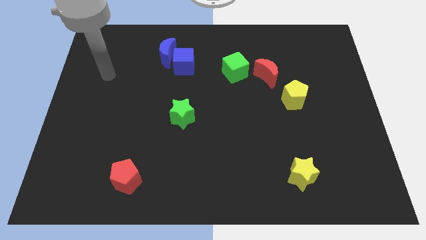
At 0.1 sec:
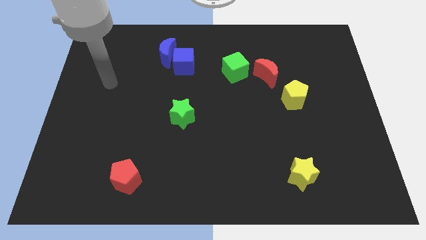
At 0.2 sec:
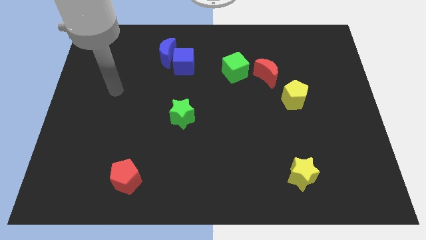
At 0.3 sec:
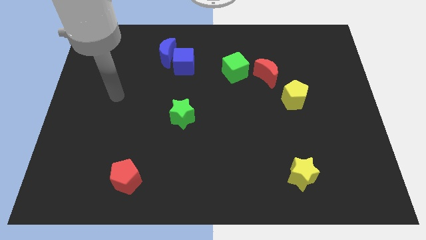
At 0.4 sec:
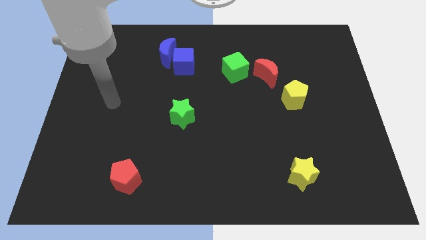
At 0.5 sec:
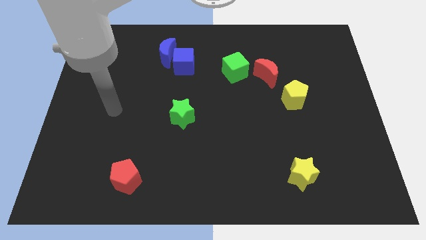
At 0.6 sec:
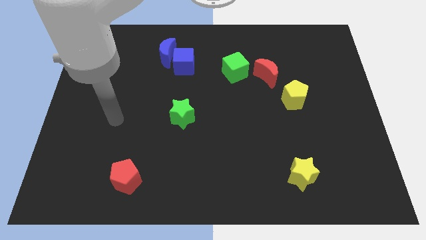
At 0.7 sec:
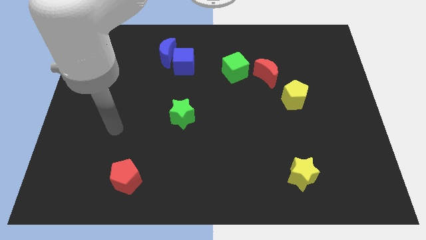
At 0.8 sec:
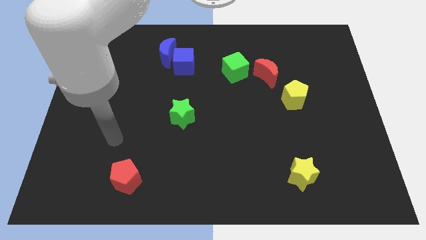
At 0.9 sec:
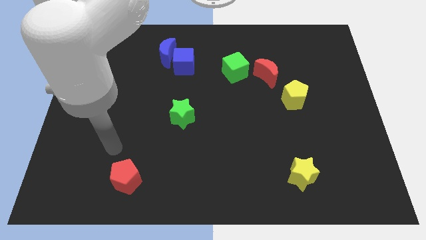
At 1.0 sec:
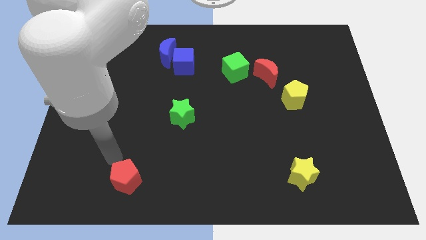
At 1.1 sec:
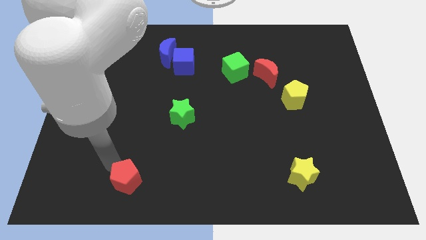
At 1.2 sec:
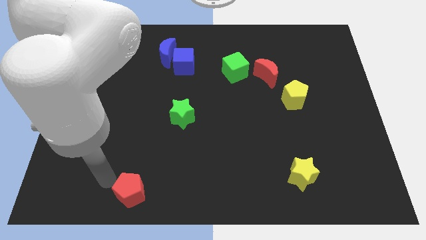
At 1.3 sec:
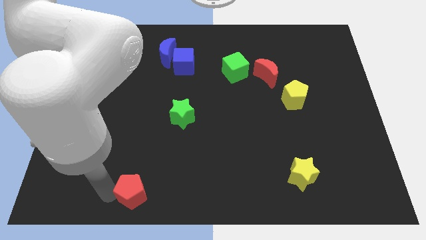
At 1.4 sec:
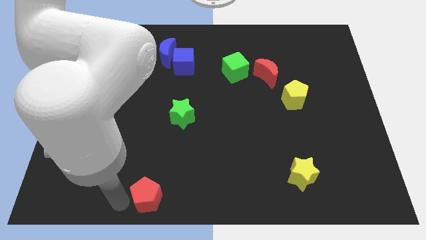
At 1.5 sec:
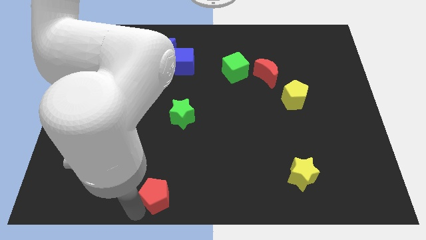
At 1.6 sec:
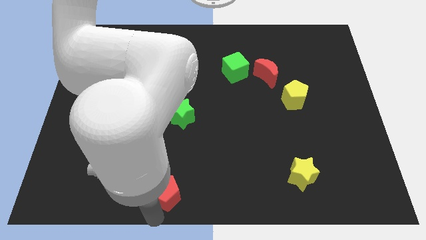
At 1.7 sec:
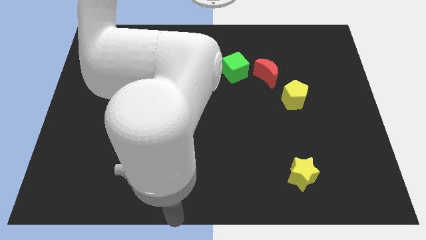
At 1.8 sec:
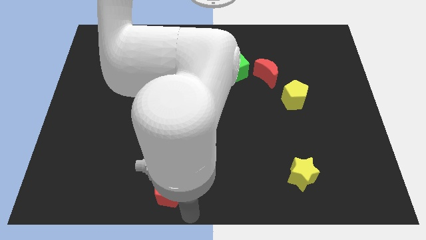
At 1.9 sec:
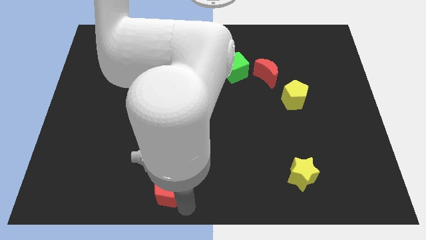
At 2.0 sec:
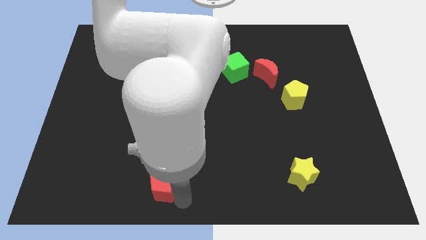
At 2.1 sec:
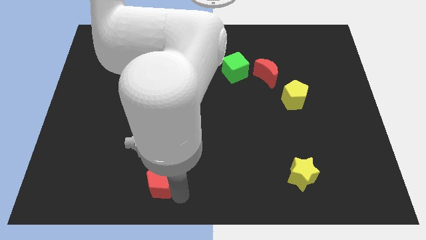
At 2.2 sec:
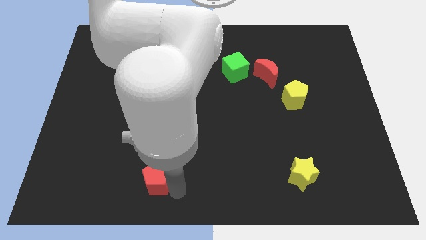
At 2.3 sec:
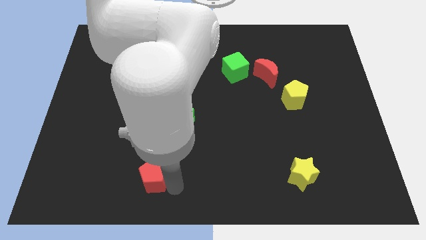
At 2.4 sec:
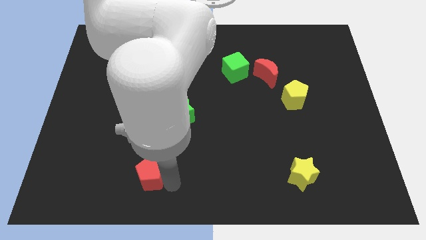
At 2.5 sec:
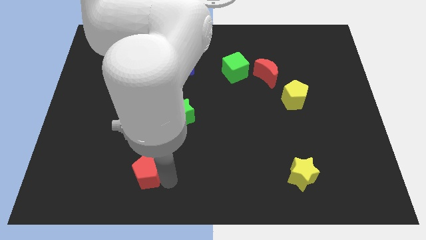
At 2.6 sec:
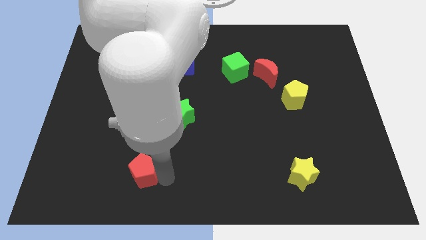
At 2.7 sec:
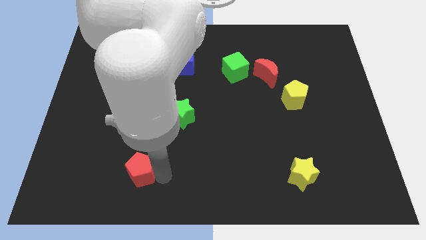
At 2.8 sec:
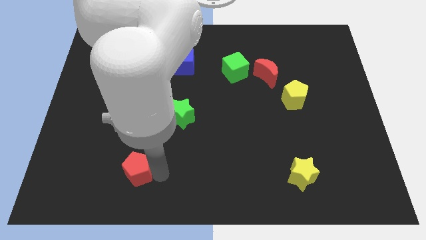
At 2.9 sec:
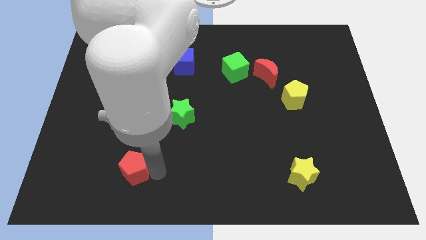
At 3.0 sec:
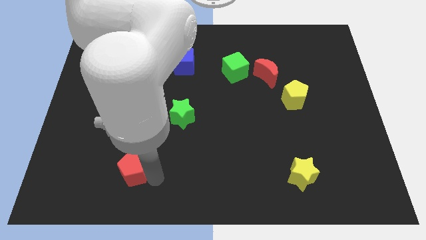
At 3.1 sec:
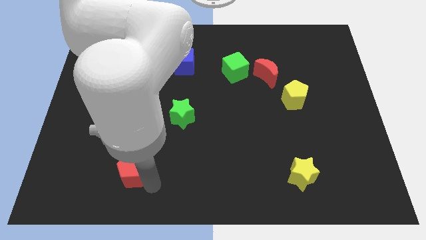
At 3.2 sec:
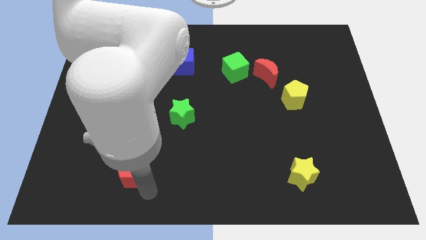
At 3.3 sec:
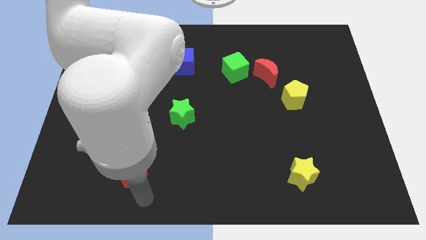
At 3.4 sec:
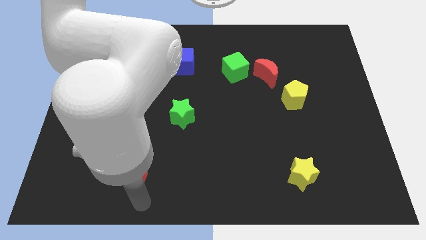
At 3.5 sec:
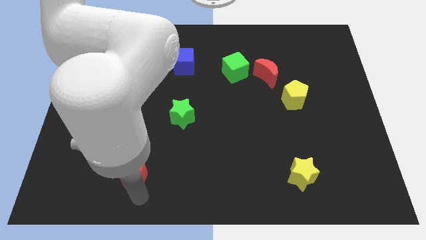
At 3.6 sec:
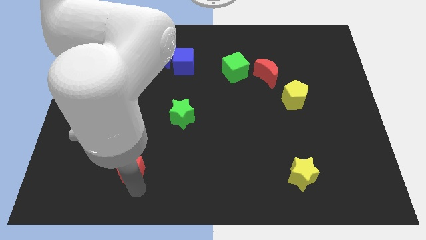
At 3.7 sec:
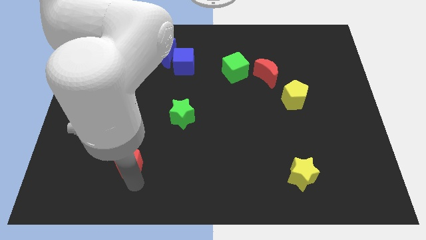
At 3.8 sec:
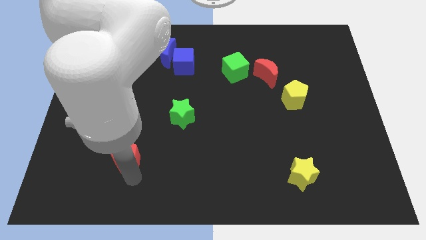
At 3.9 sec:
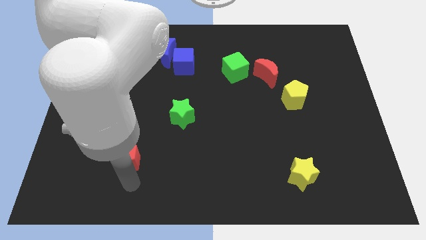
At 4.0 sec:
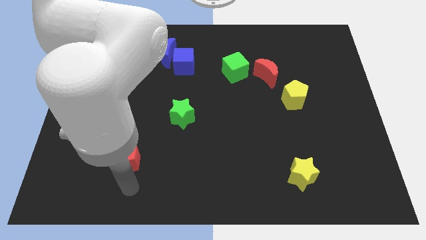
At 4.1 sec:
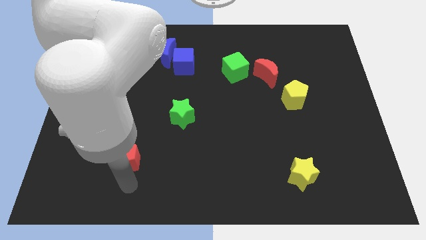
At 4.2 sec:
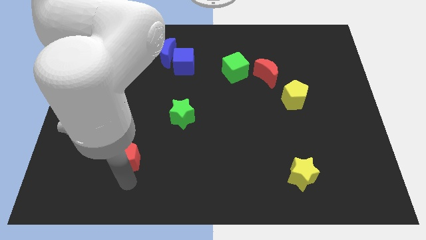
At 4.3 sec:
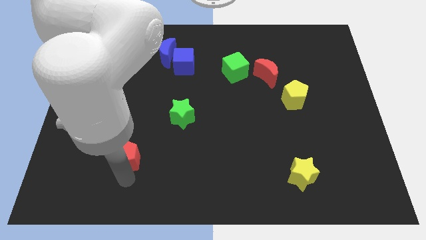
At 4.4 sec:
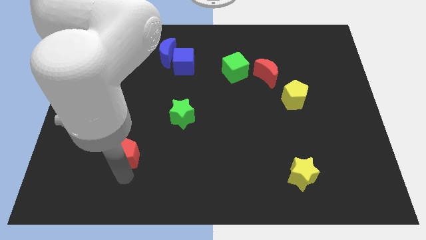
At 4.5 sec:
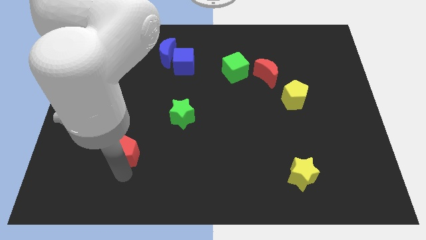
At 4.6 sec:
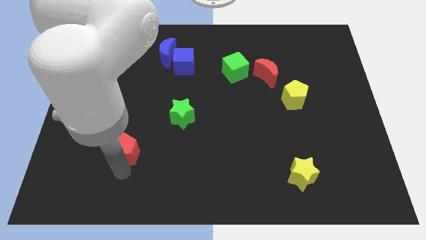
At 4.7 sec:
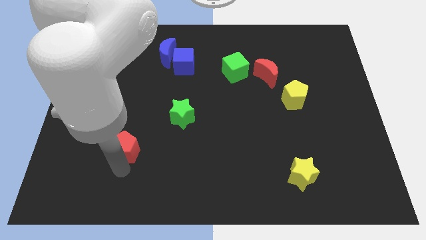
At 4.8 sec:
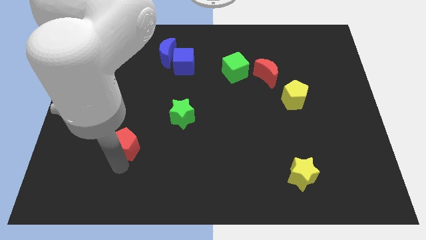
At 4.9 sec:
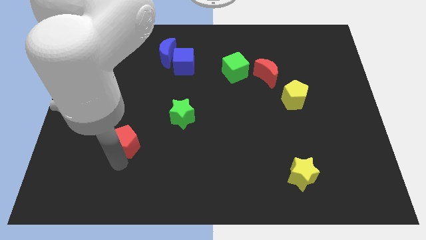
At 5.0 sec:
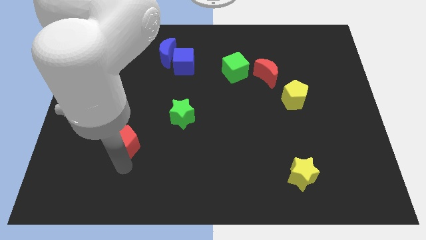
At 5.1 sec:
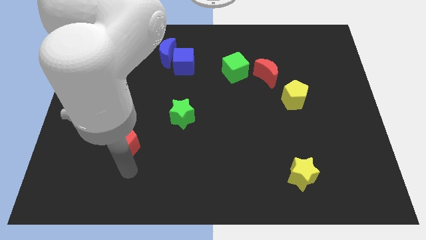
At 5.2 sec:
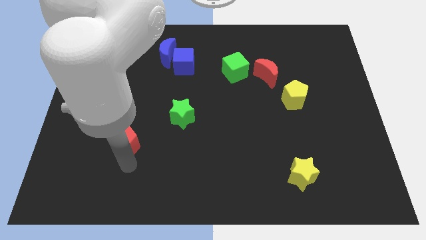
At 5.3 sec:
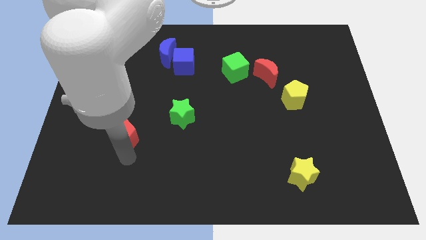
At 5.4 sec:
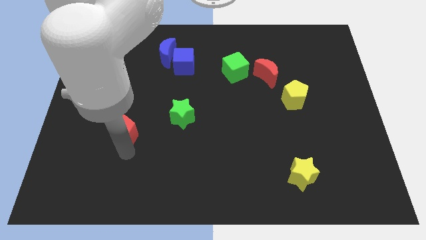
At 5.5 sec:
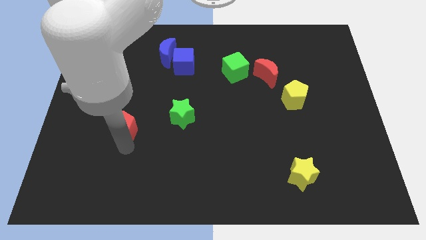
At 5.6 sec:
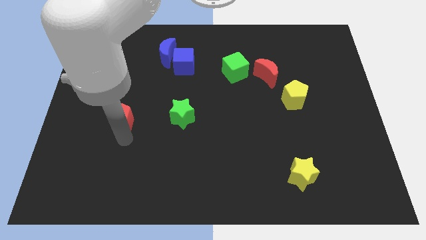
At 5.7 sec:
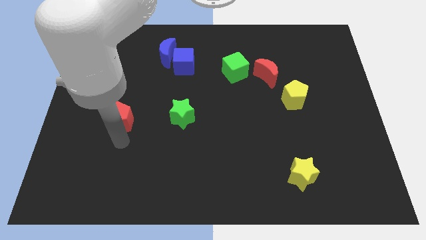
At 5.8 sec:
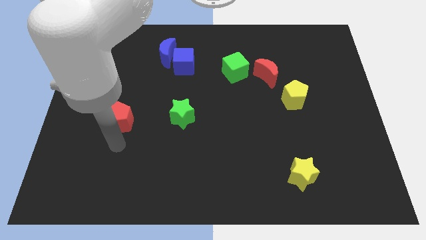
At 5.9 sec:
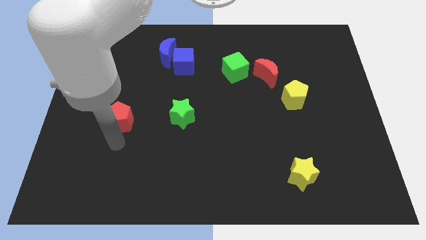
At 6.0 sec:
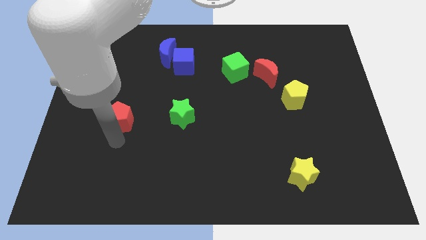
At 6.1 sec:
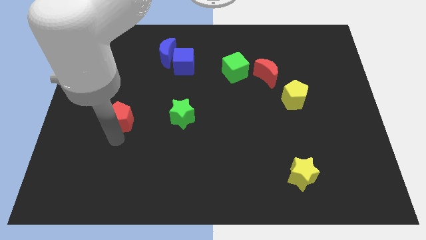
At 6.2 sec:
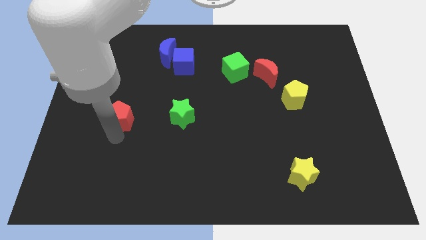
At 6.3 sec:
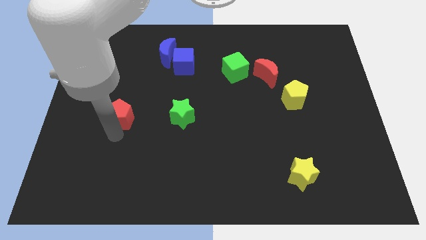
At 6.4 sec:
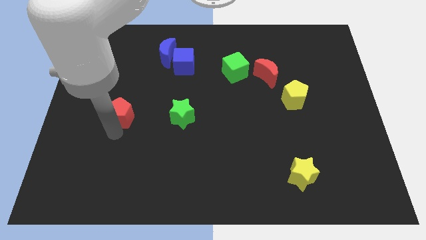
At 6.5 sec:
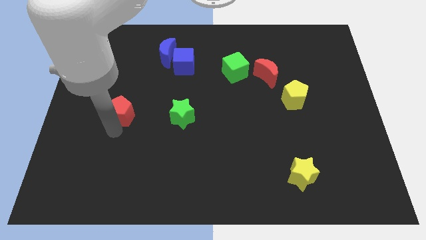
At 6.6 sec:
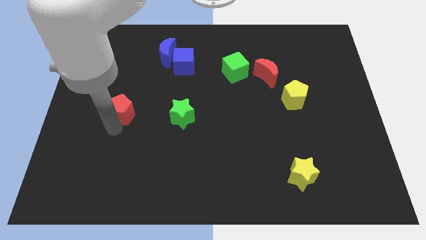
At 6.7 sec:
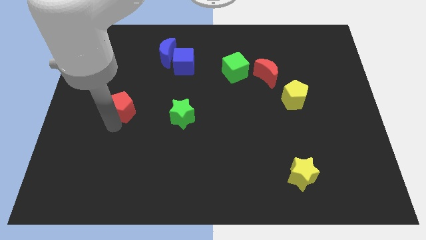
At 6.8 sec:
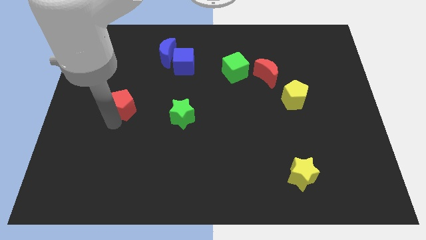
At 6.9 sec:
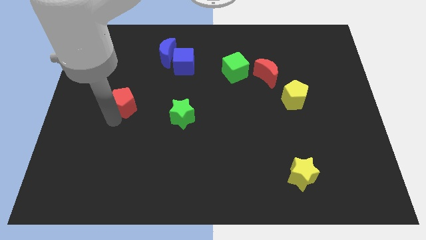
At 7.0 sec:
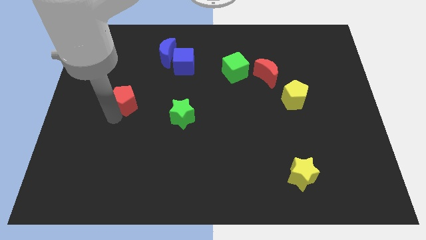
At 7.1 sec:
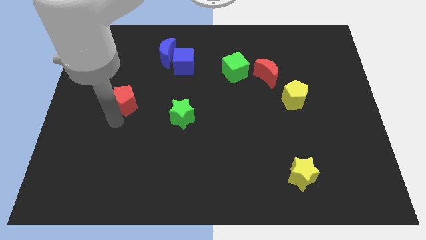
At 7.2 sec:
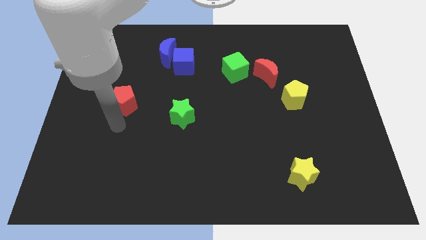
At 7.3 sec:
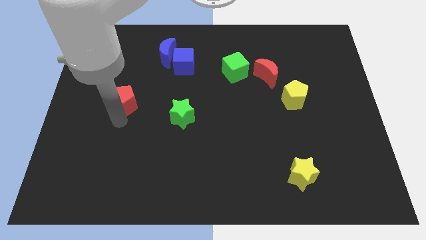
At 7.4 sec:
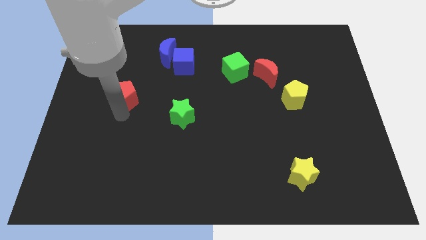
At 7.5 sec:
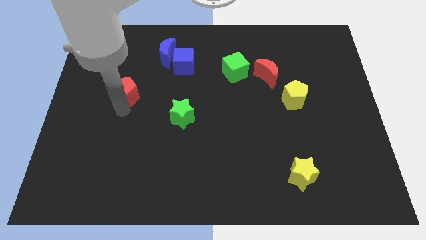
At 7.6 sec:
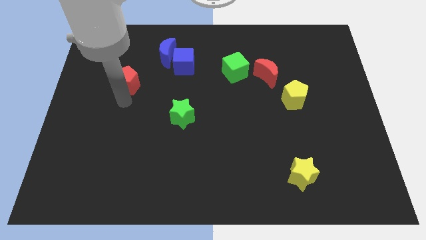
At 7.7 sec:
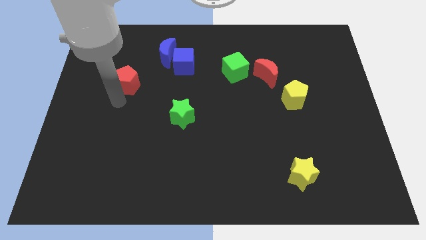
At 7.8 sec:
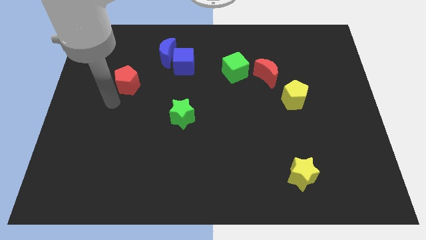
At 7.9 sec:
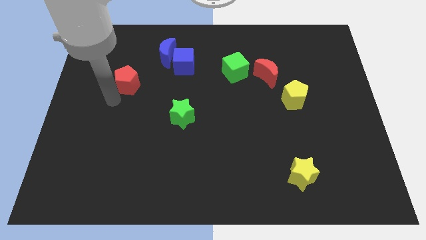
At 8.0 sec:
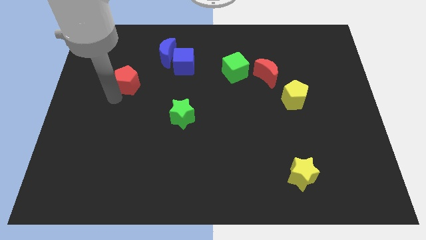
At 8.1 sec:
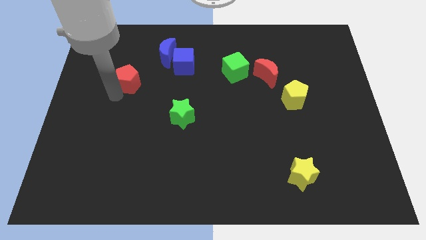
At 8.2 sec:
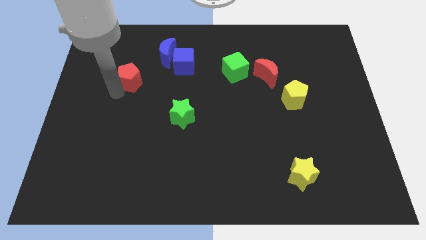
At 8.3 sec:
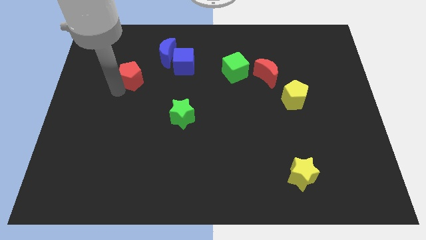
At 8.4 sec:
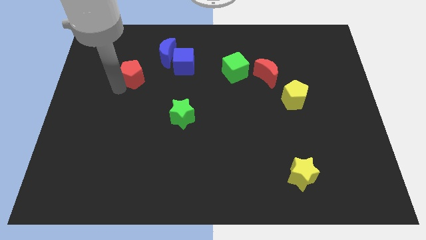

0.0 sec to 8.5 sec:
slide the red pentagon to the left of the blue cube
